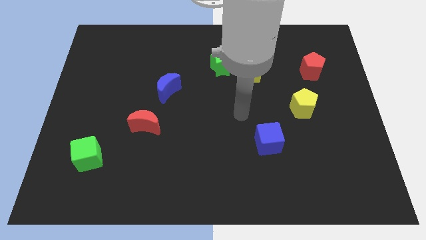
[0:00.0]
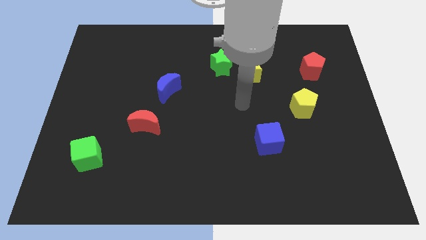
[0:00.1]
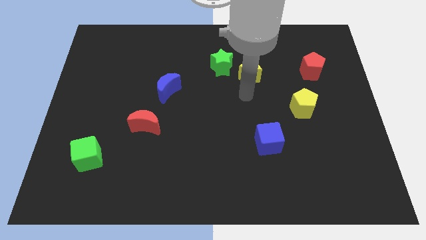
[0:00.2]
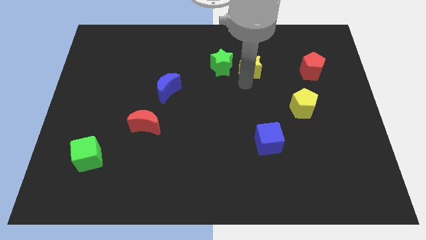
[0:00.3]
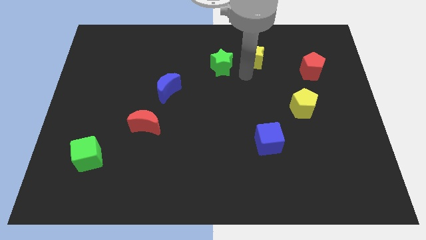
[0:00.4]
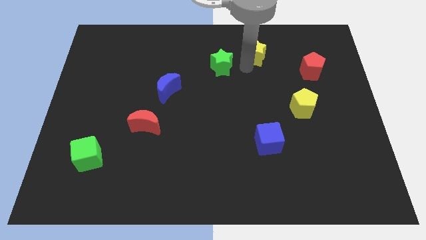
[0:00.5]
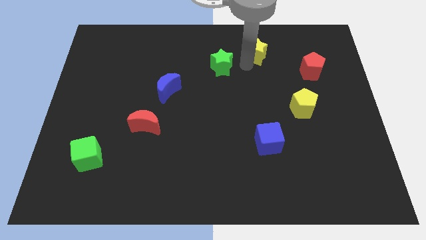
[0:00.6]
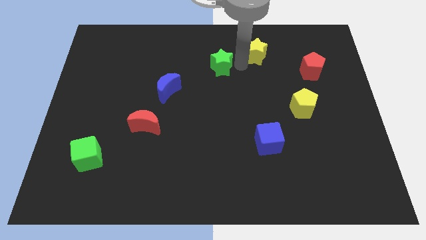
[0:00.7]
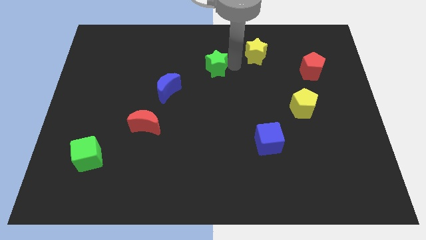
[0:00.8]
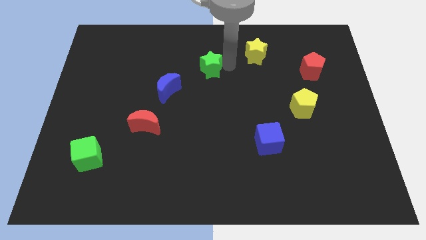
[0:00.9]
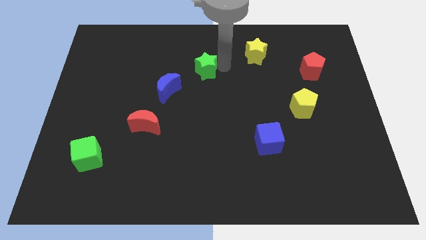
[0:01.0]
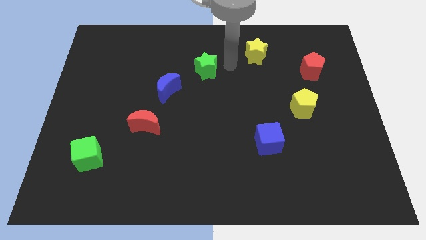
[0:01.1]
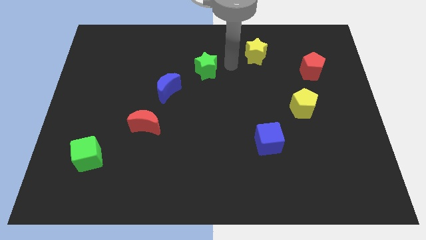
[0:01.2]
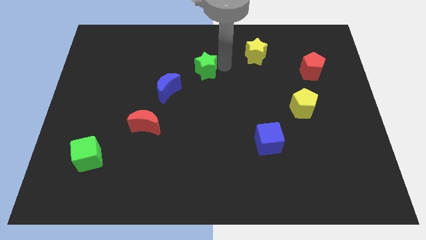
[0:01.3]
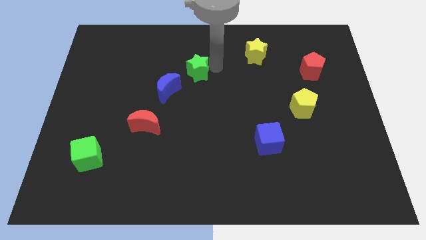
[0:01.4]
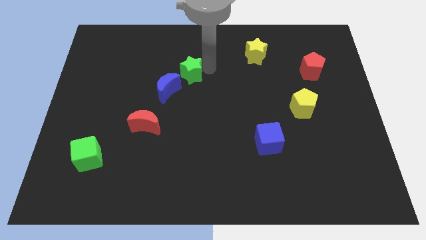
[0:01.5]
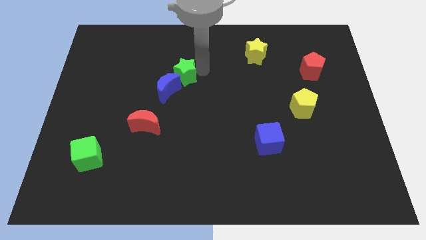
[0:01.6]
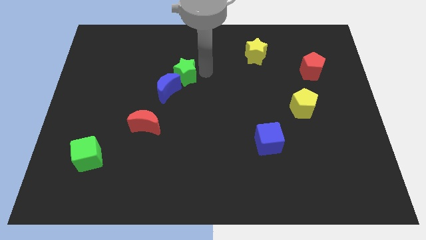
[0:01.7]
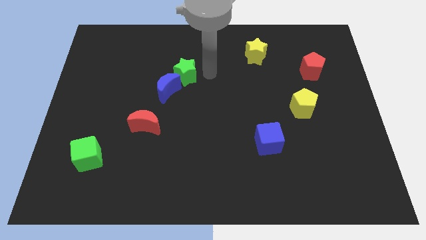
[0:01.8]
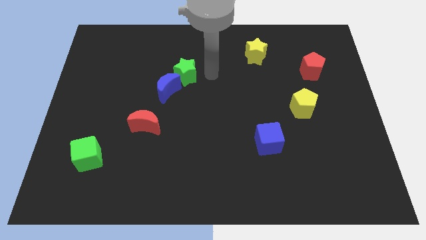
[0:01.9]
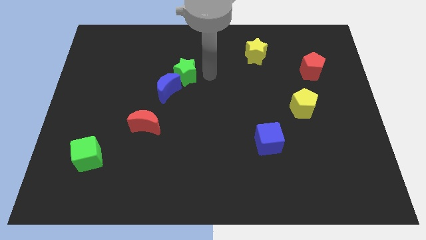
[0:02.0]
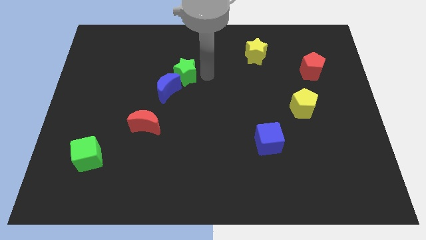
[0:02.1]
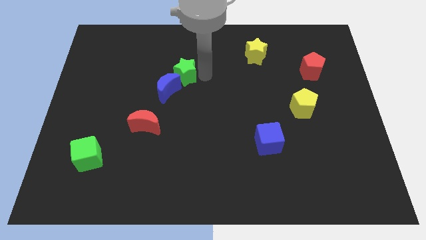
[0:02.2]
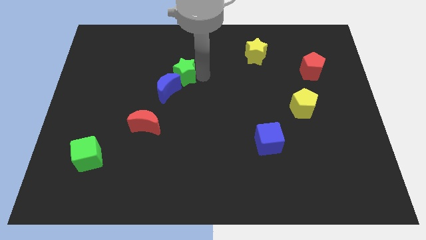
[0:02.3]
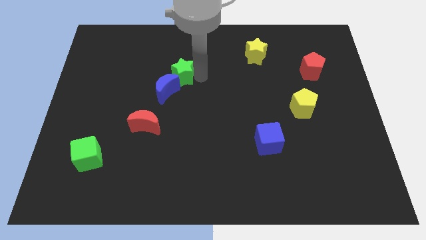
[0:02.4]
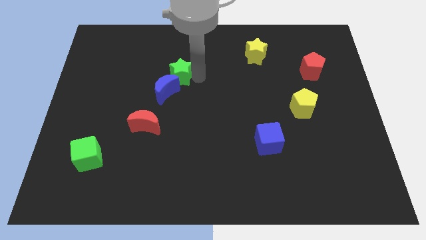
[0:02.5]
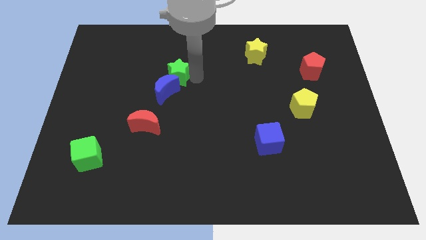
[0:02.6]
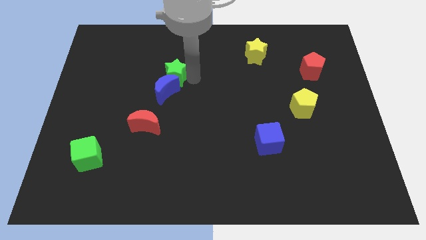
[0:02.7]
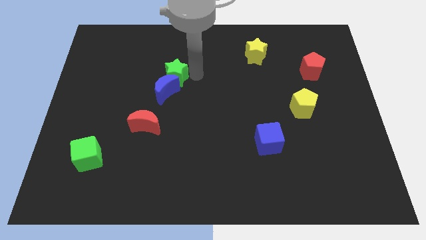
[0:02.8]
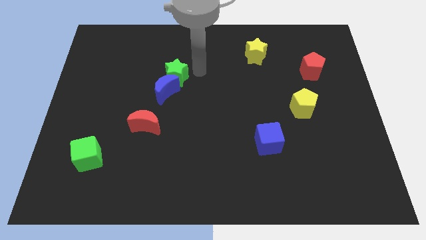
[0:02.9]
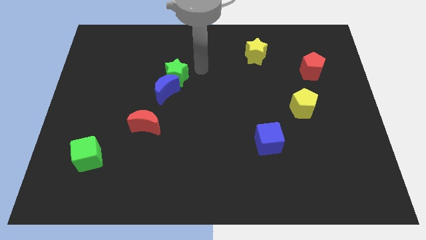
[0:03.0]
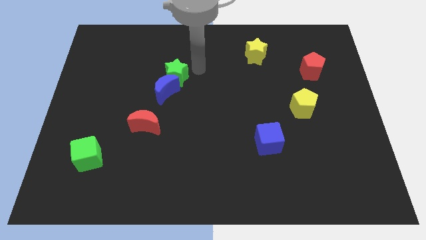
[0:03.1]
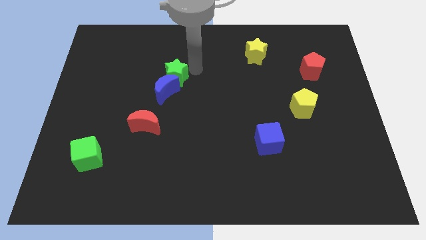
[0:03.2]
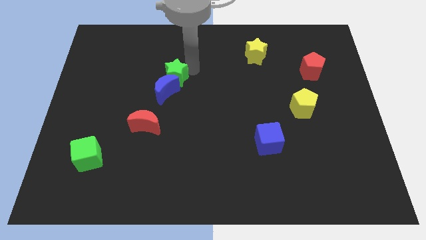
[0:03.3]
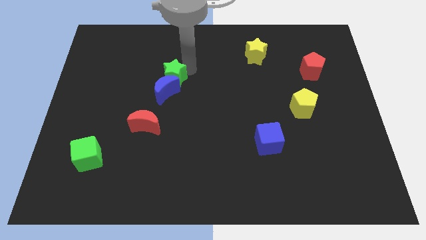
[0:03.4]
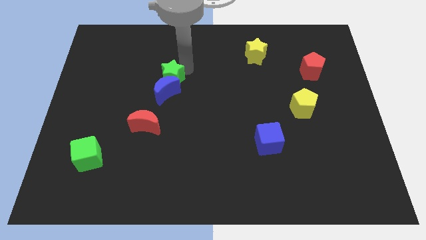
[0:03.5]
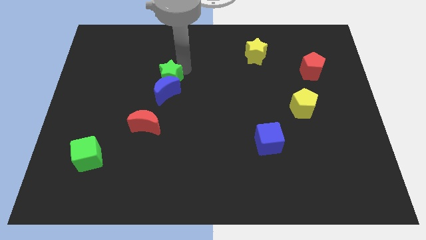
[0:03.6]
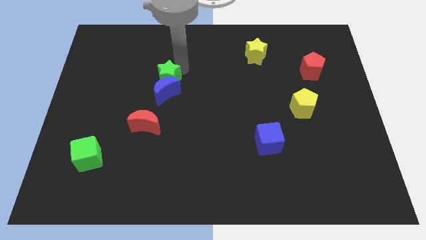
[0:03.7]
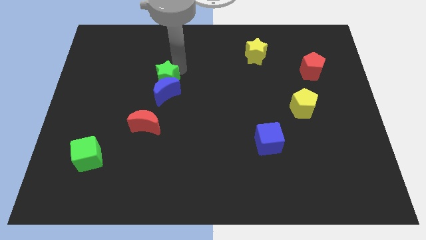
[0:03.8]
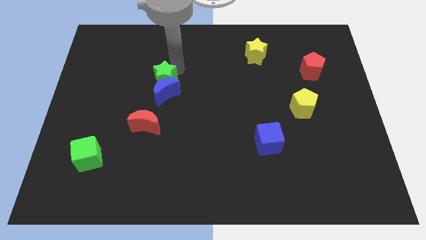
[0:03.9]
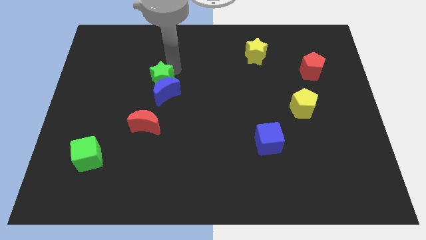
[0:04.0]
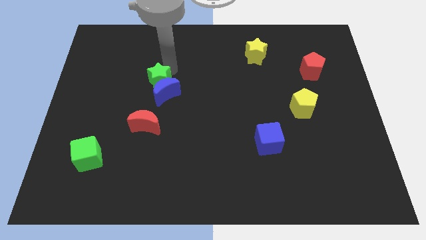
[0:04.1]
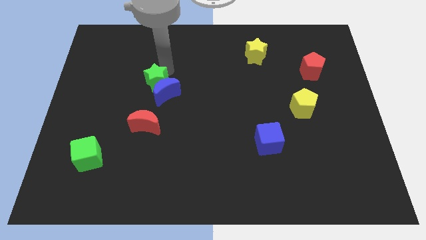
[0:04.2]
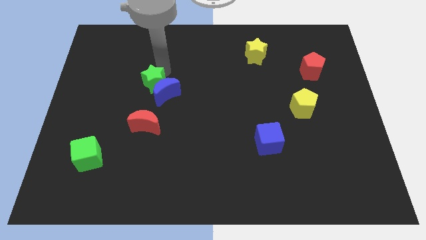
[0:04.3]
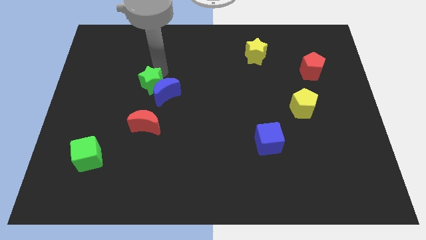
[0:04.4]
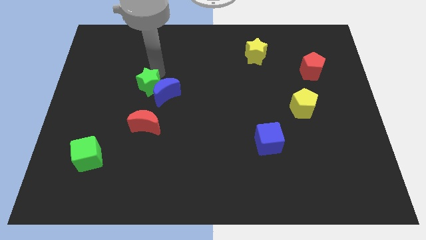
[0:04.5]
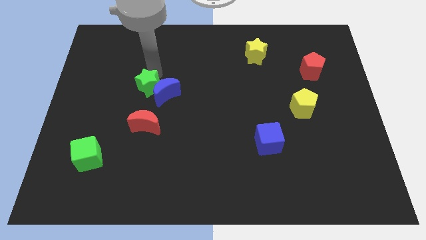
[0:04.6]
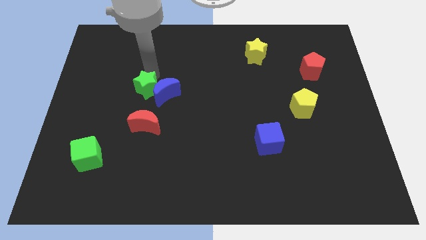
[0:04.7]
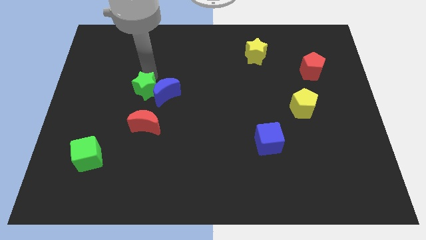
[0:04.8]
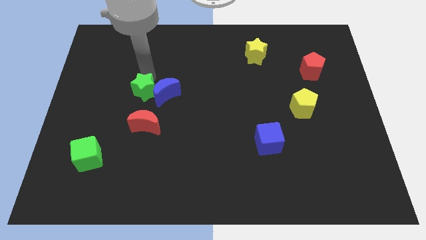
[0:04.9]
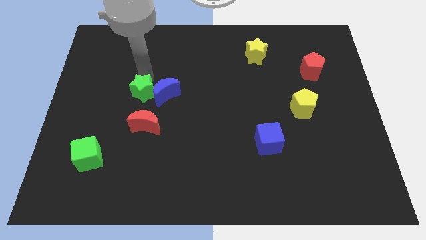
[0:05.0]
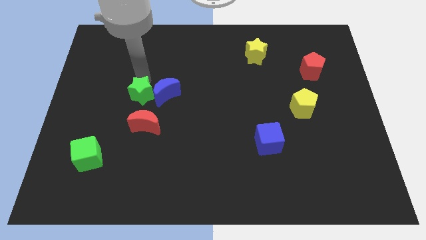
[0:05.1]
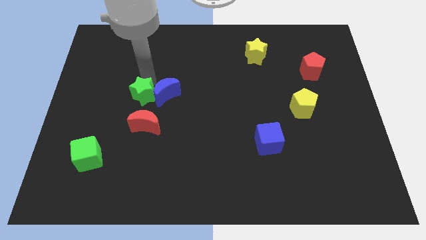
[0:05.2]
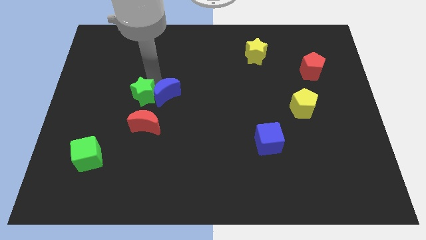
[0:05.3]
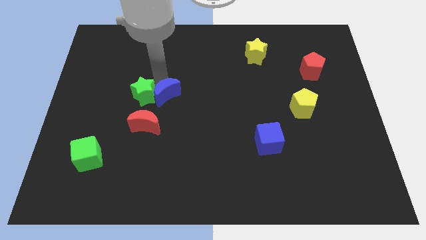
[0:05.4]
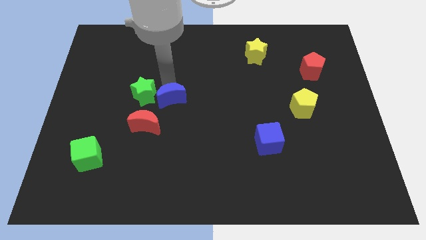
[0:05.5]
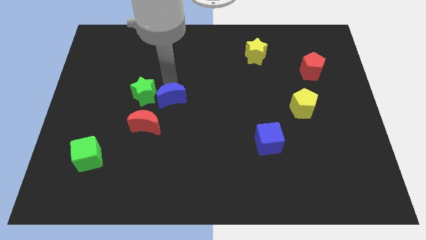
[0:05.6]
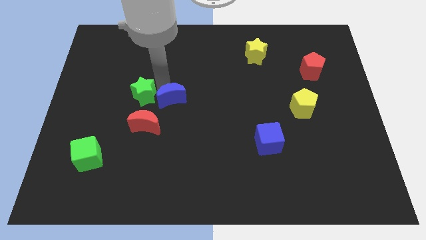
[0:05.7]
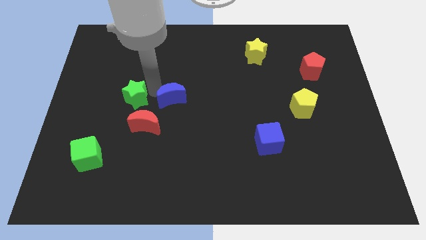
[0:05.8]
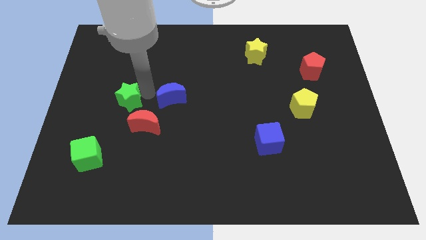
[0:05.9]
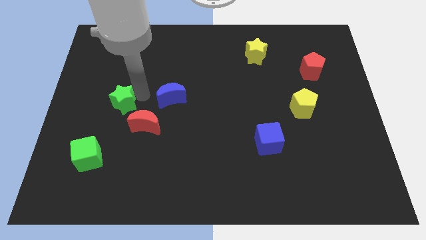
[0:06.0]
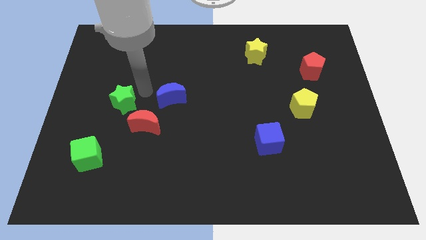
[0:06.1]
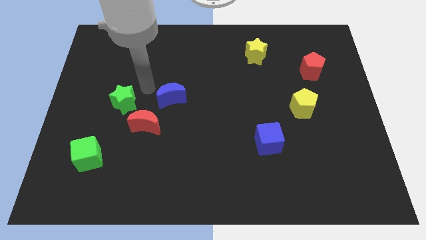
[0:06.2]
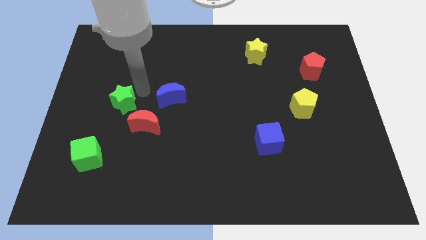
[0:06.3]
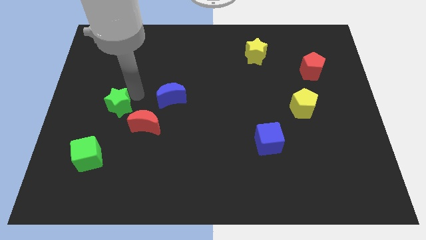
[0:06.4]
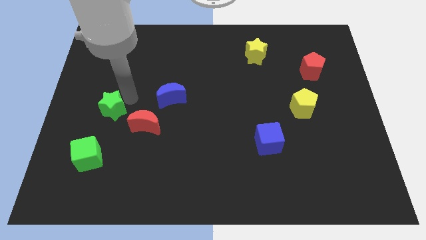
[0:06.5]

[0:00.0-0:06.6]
put the green star to the top side of the green cube
